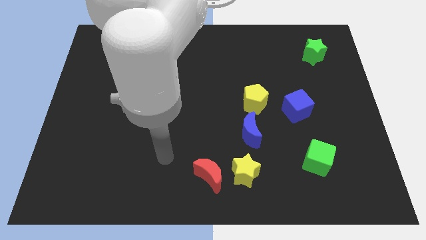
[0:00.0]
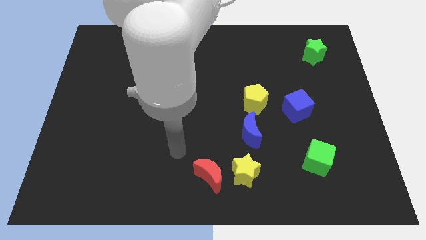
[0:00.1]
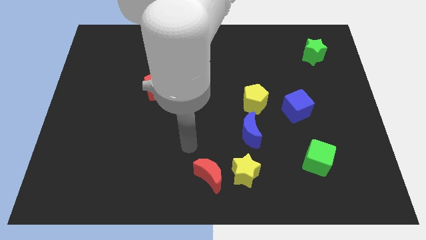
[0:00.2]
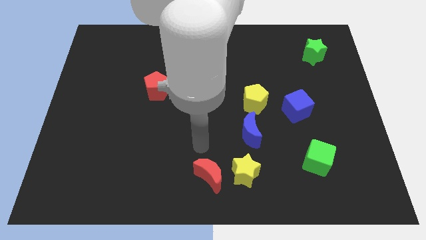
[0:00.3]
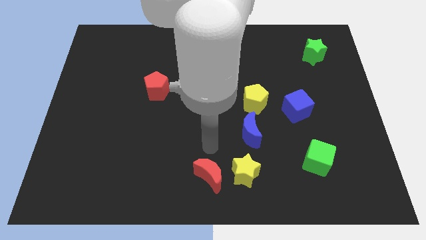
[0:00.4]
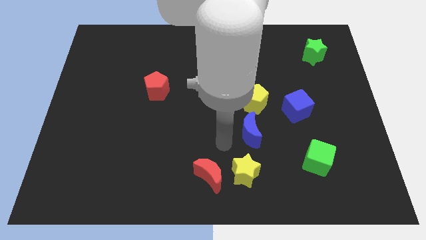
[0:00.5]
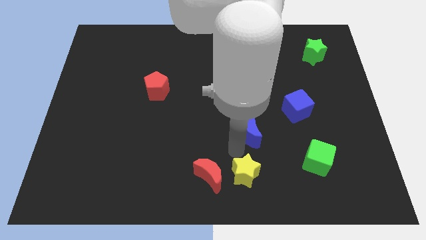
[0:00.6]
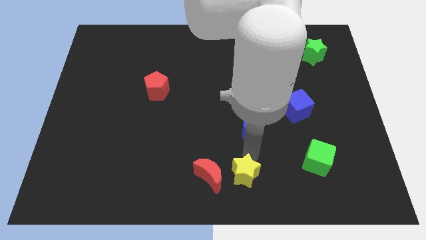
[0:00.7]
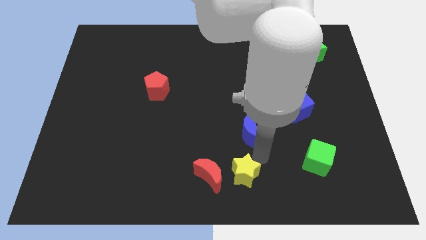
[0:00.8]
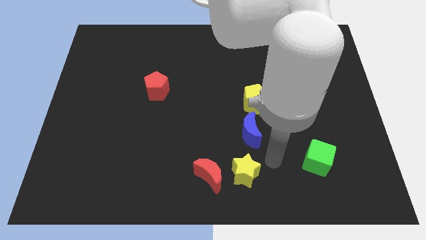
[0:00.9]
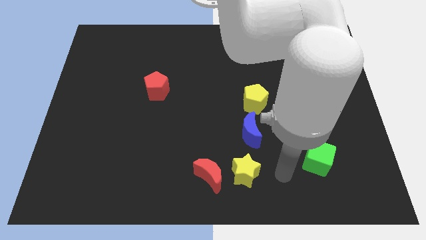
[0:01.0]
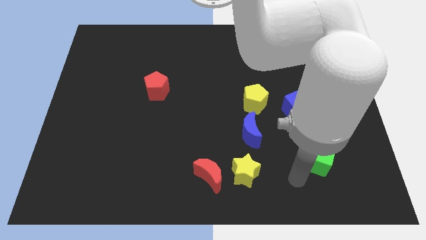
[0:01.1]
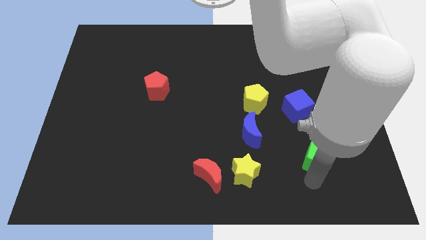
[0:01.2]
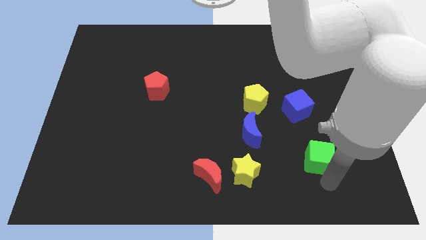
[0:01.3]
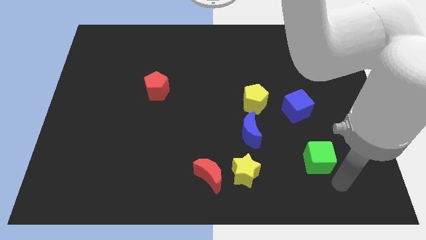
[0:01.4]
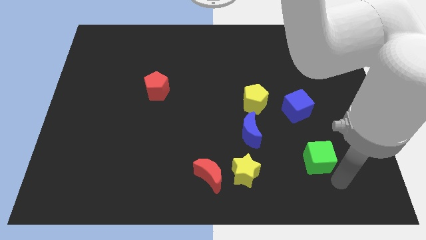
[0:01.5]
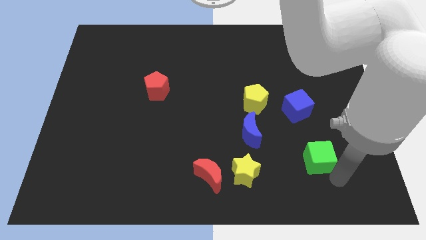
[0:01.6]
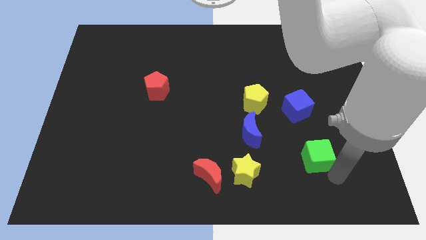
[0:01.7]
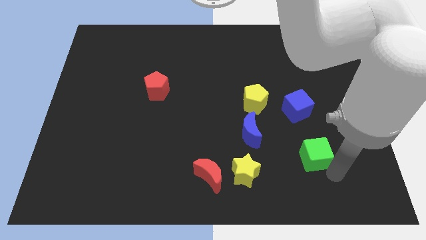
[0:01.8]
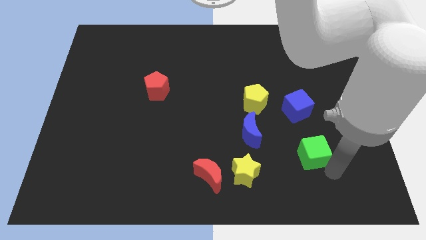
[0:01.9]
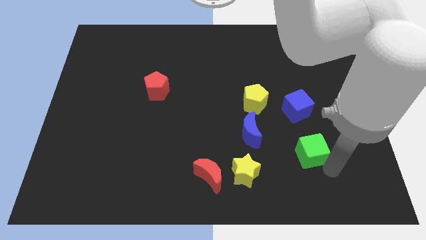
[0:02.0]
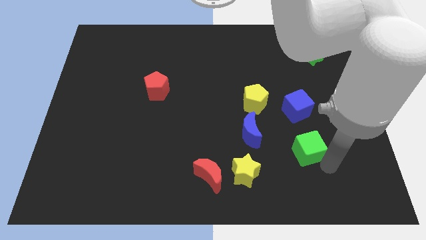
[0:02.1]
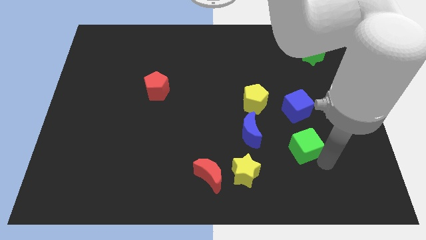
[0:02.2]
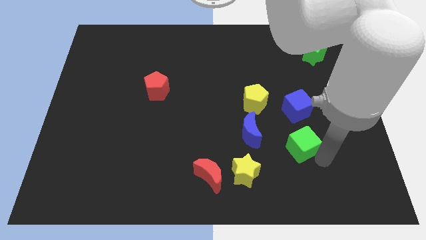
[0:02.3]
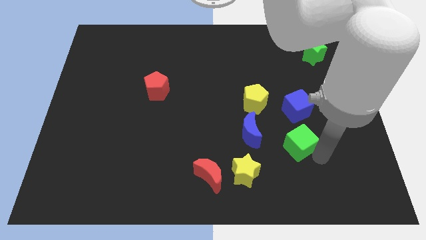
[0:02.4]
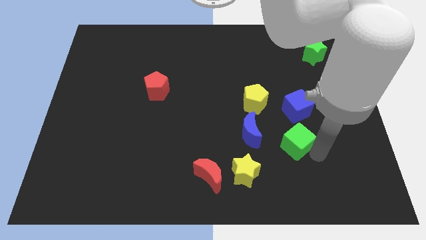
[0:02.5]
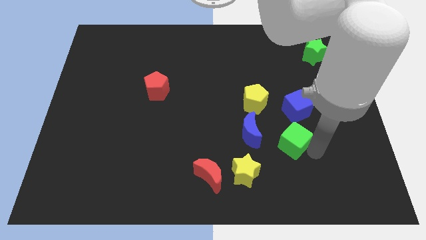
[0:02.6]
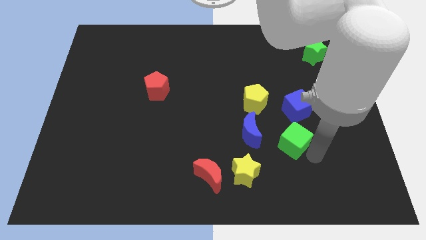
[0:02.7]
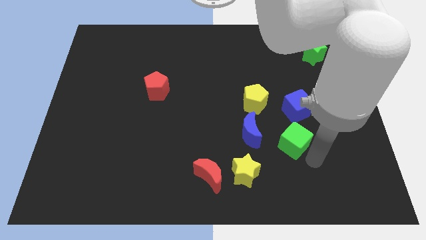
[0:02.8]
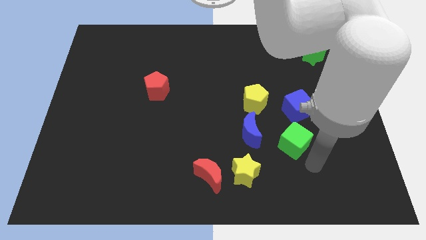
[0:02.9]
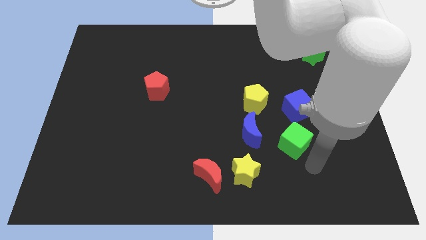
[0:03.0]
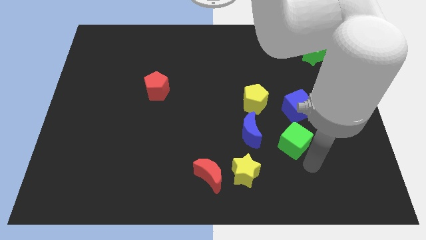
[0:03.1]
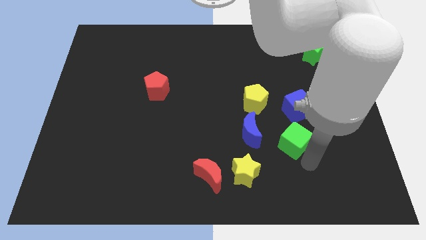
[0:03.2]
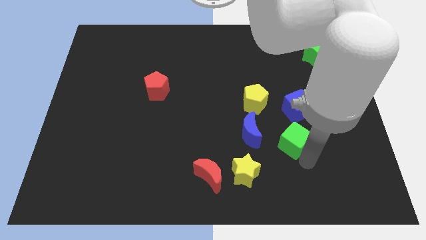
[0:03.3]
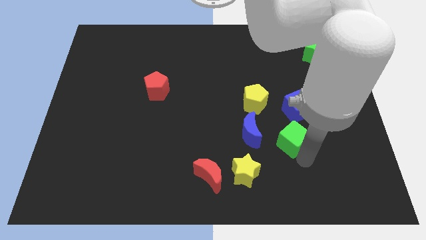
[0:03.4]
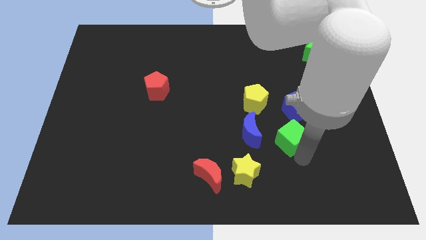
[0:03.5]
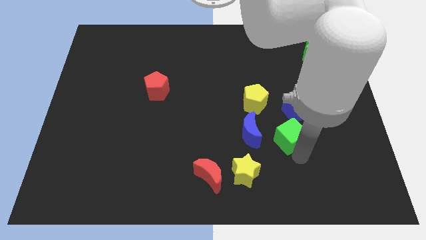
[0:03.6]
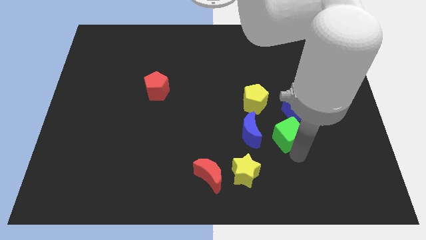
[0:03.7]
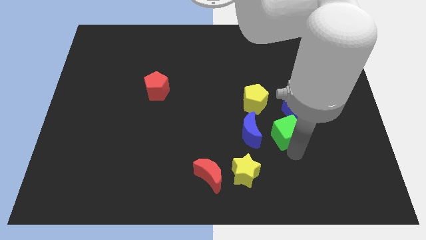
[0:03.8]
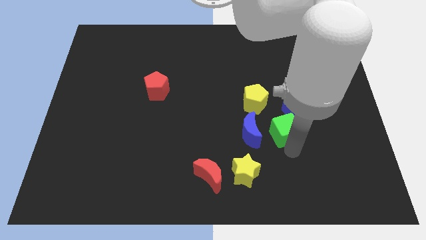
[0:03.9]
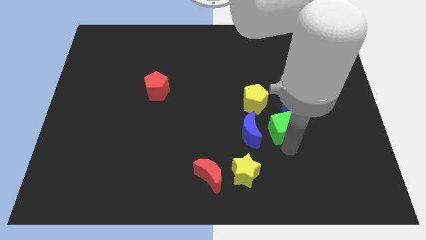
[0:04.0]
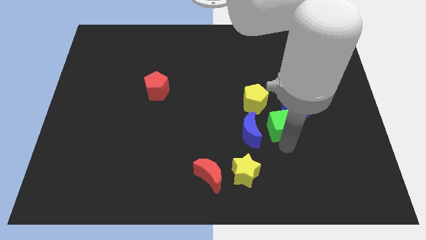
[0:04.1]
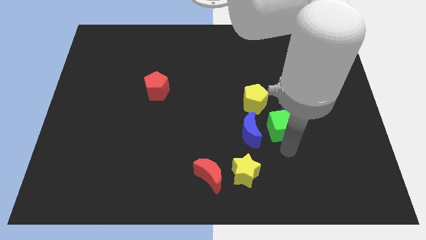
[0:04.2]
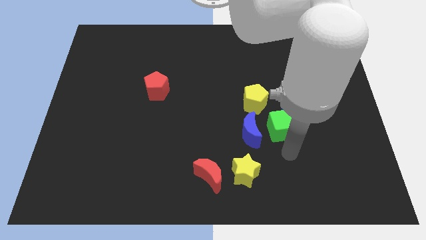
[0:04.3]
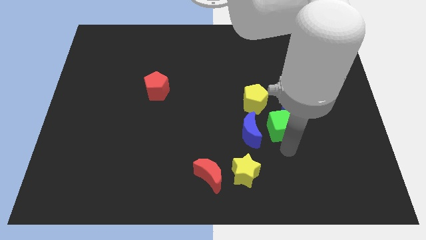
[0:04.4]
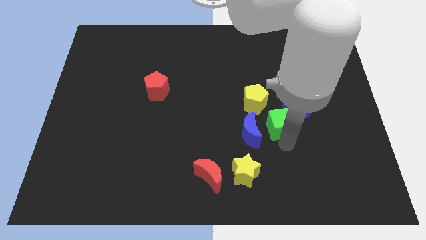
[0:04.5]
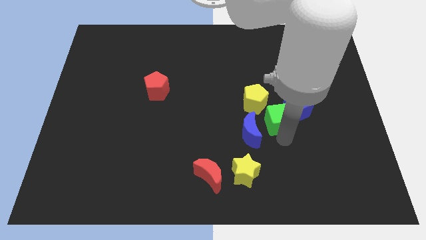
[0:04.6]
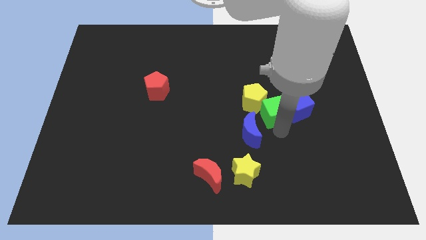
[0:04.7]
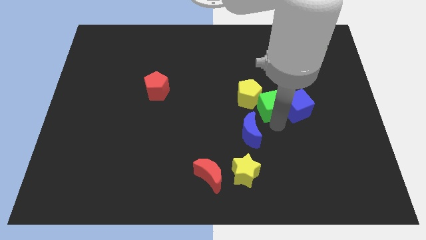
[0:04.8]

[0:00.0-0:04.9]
push the green cube diagonally up and to the left of the blue cube

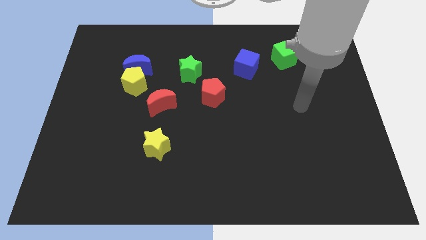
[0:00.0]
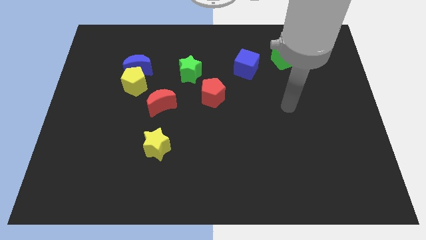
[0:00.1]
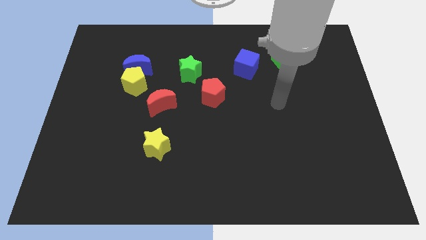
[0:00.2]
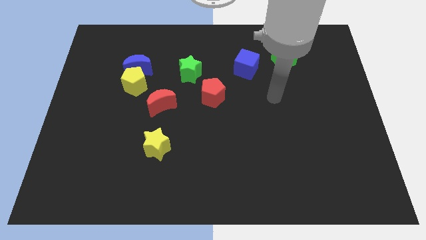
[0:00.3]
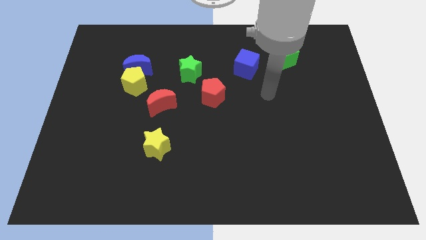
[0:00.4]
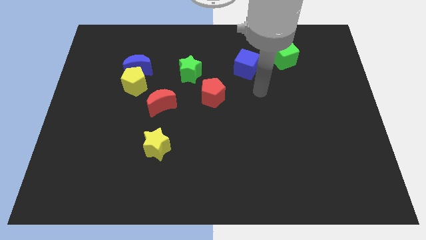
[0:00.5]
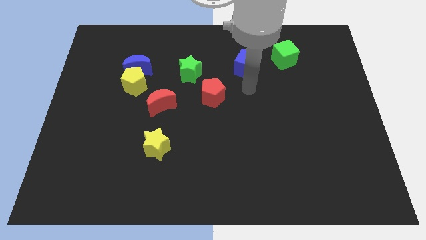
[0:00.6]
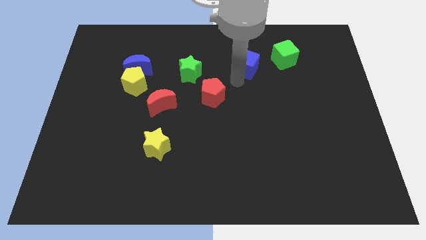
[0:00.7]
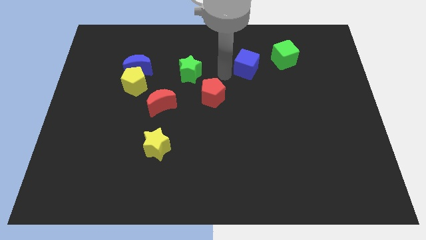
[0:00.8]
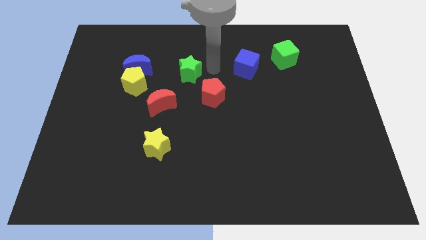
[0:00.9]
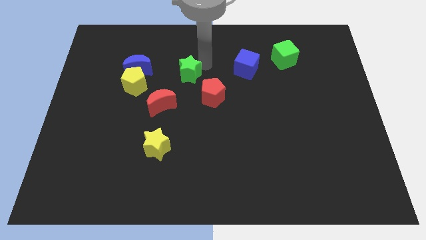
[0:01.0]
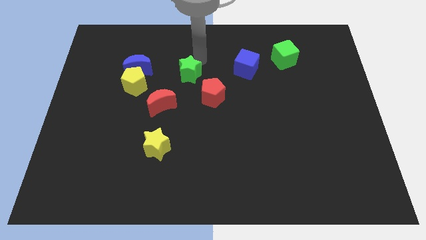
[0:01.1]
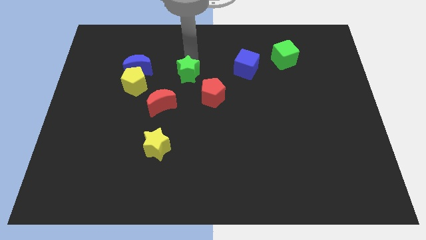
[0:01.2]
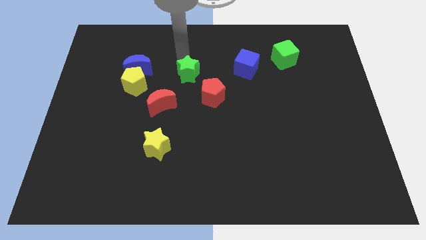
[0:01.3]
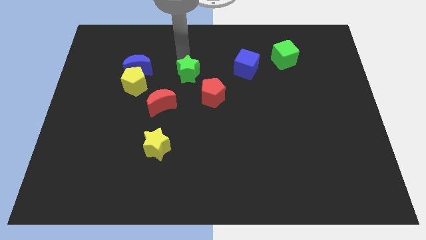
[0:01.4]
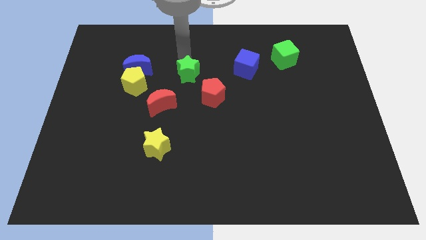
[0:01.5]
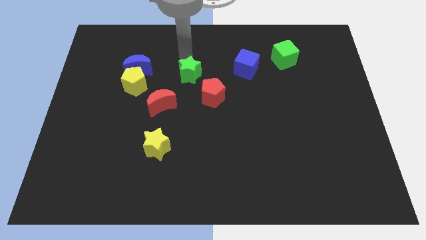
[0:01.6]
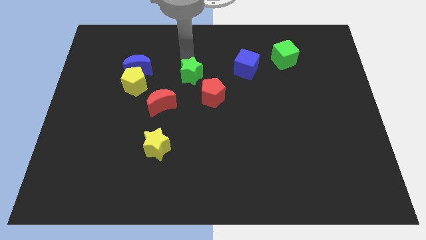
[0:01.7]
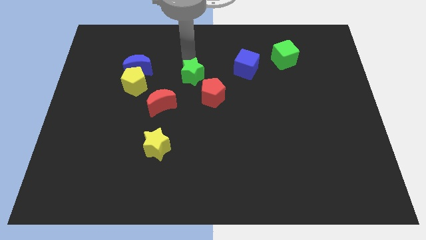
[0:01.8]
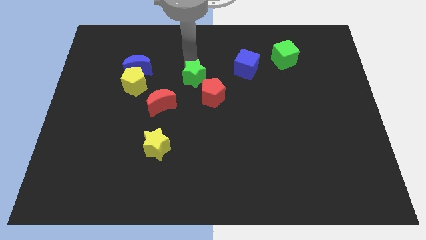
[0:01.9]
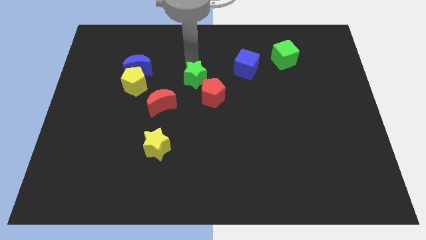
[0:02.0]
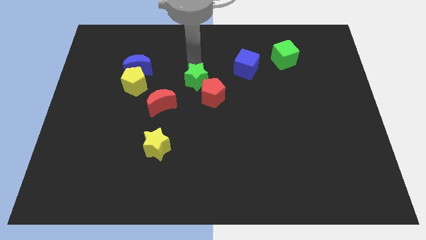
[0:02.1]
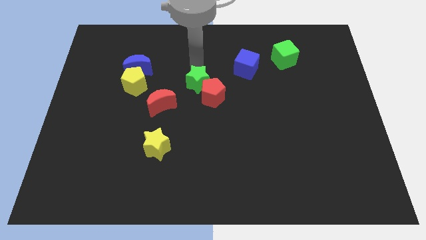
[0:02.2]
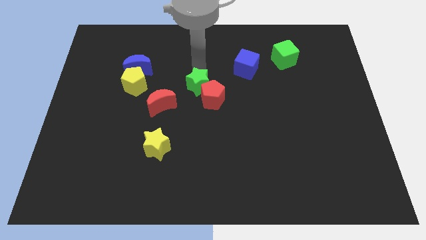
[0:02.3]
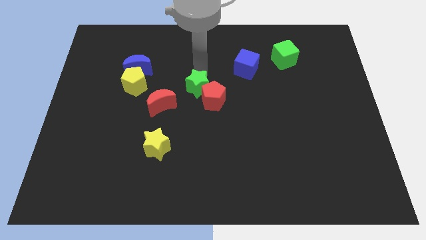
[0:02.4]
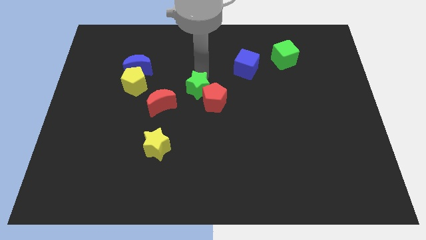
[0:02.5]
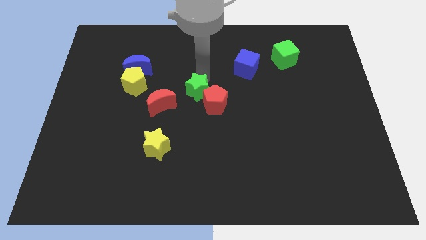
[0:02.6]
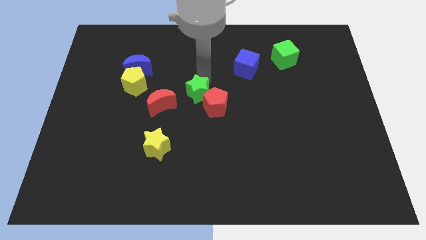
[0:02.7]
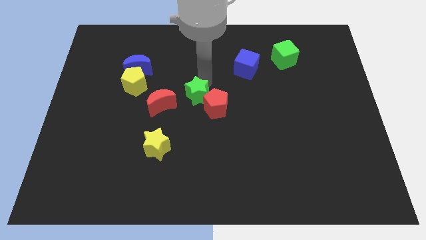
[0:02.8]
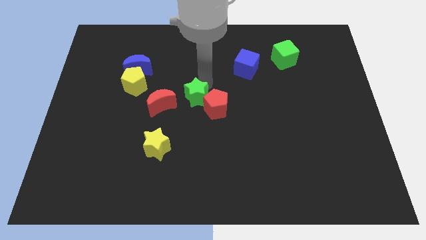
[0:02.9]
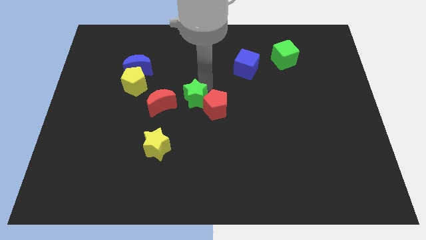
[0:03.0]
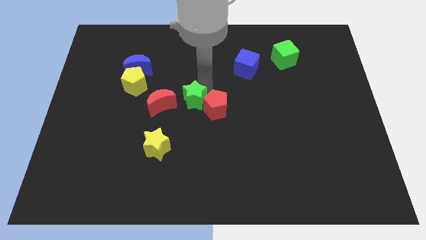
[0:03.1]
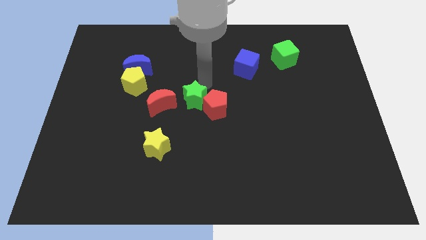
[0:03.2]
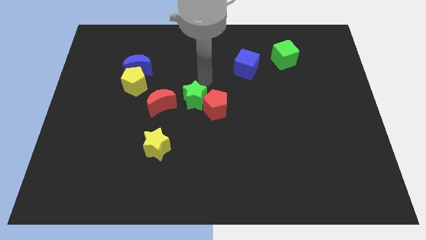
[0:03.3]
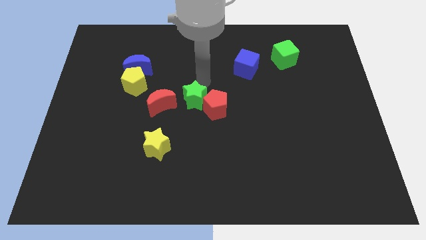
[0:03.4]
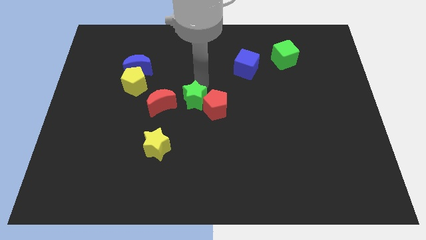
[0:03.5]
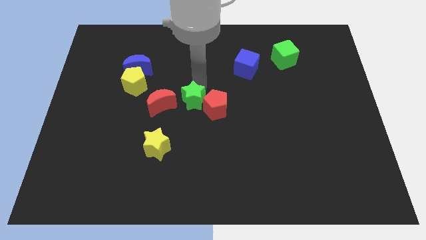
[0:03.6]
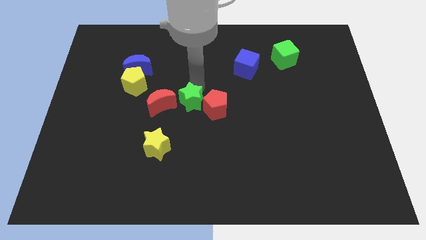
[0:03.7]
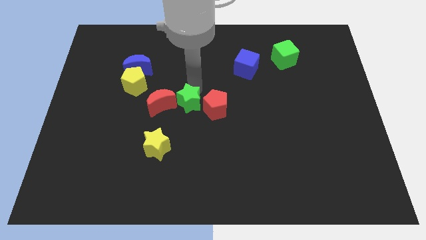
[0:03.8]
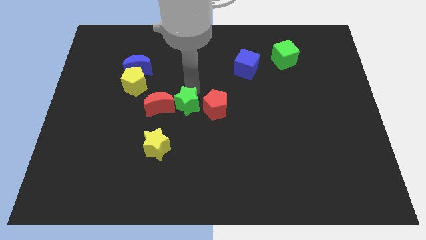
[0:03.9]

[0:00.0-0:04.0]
push the green star to the bottom right side of the red moon
